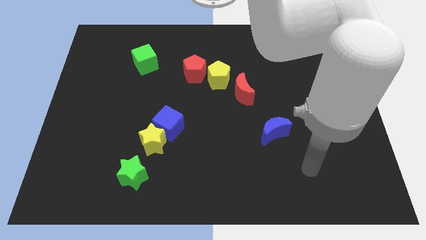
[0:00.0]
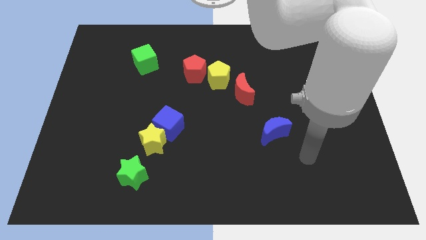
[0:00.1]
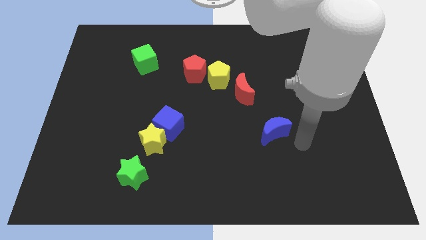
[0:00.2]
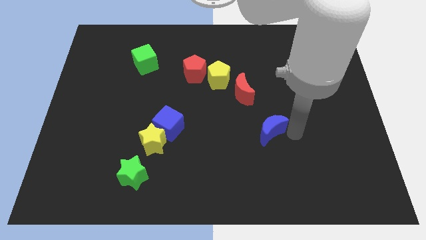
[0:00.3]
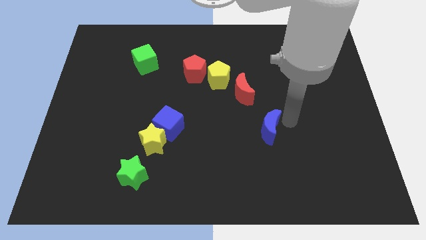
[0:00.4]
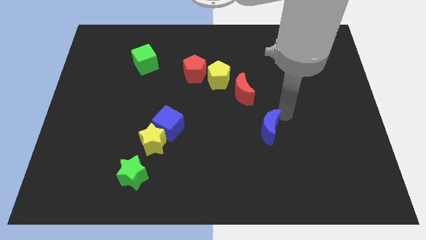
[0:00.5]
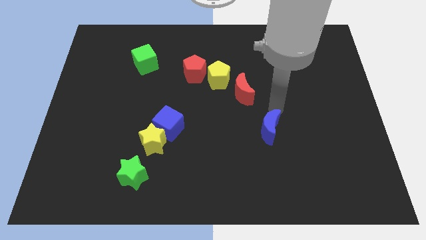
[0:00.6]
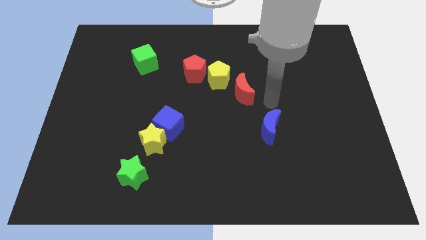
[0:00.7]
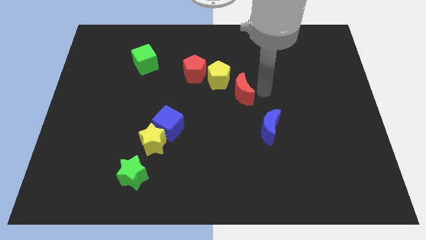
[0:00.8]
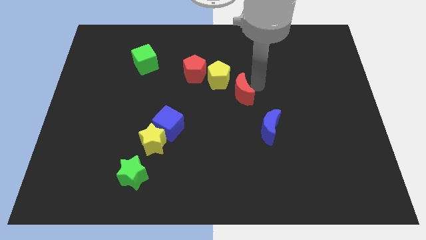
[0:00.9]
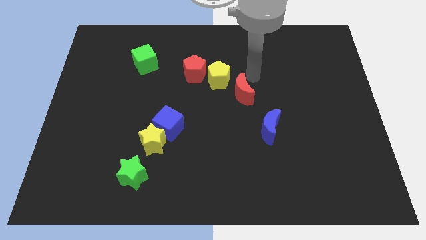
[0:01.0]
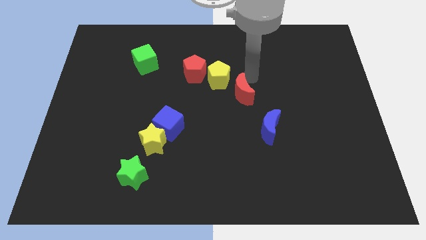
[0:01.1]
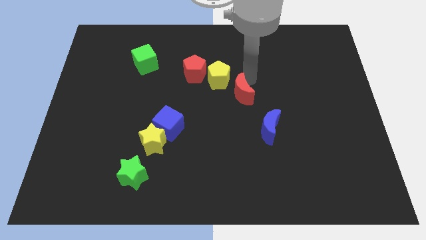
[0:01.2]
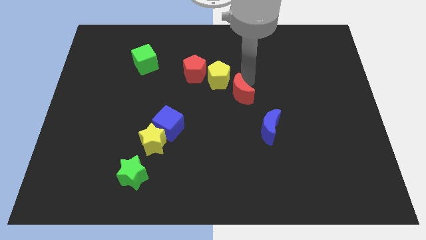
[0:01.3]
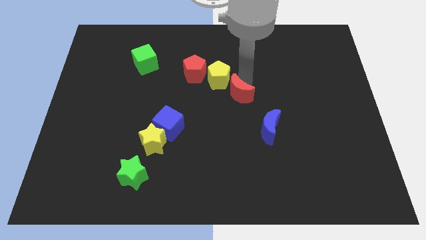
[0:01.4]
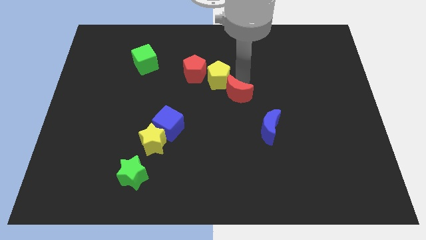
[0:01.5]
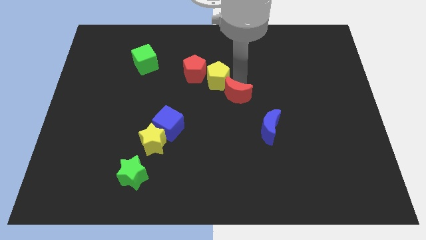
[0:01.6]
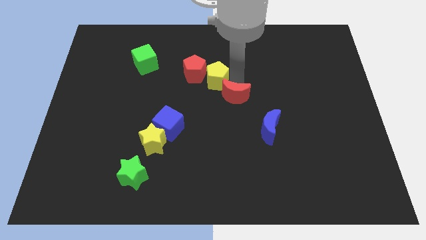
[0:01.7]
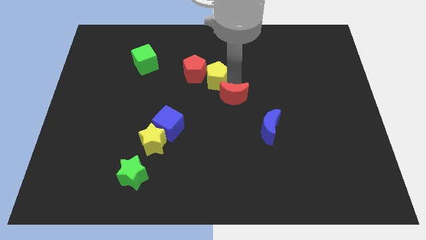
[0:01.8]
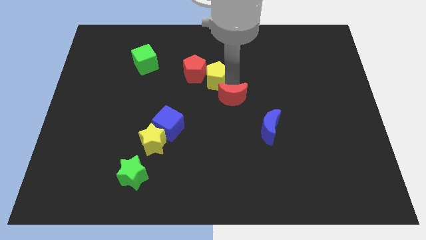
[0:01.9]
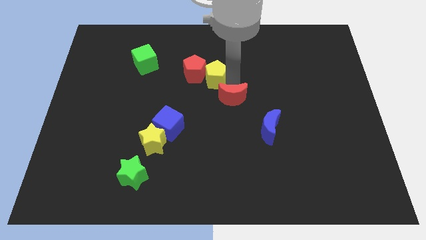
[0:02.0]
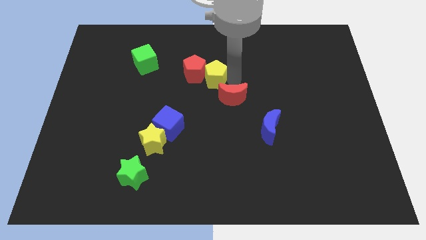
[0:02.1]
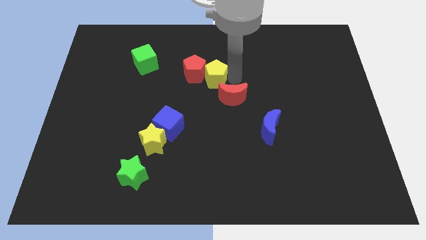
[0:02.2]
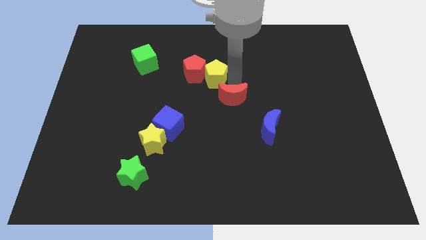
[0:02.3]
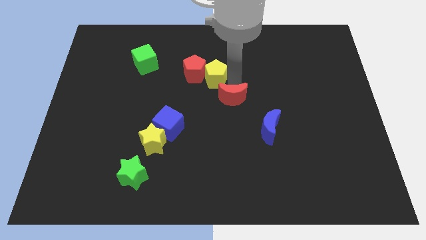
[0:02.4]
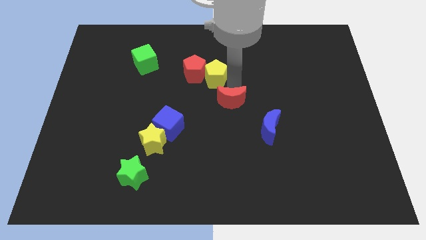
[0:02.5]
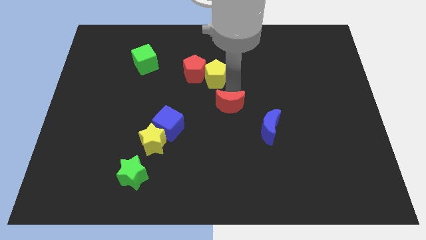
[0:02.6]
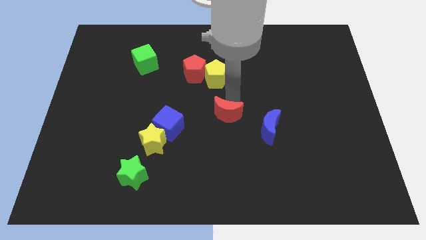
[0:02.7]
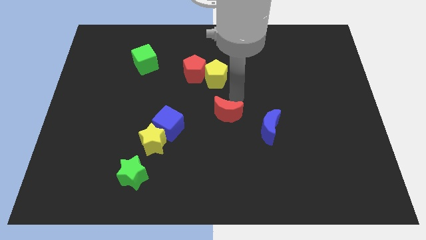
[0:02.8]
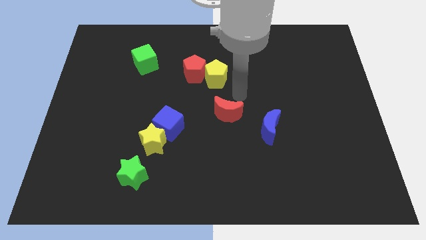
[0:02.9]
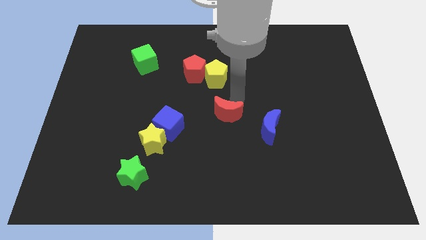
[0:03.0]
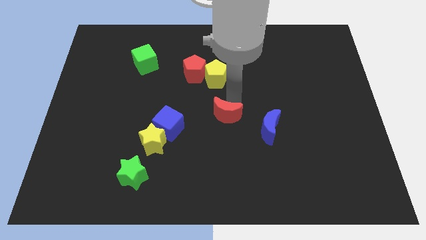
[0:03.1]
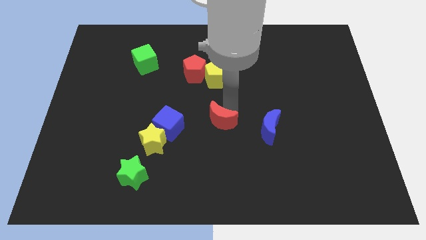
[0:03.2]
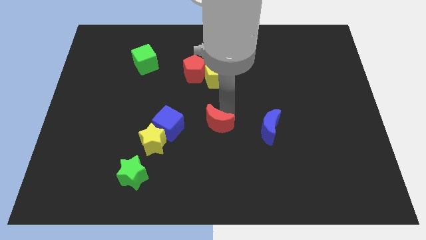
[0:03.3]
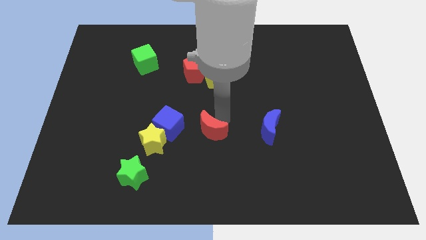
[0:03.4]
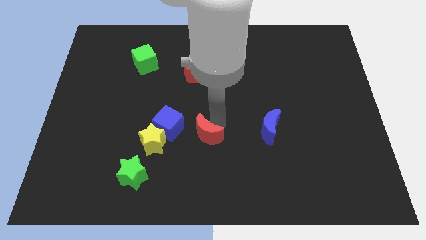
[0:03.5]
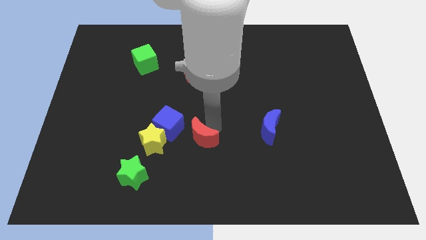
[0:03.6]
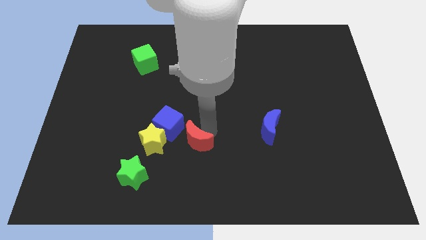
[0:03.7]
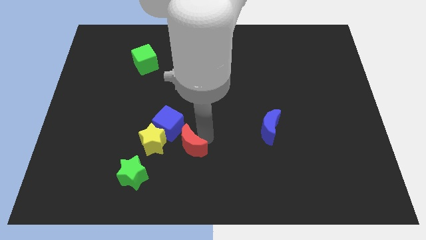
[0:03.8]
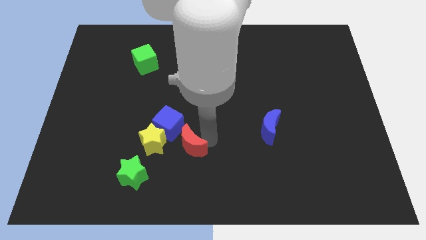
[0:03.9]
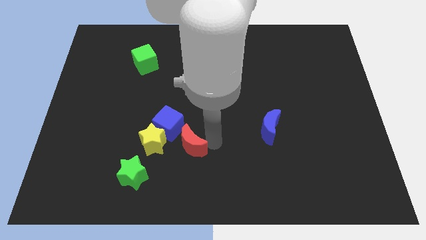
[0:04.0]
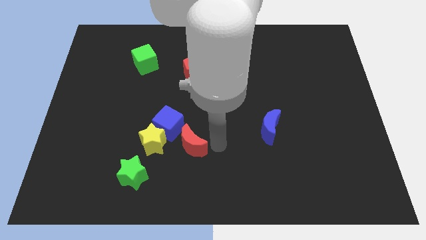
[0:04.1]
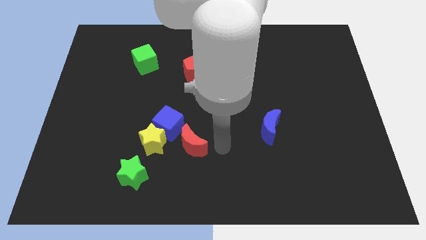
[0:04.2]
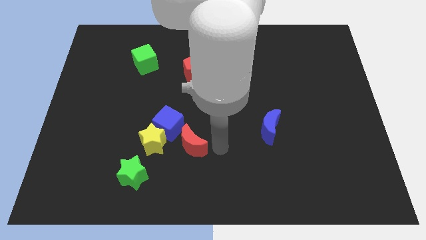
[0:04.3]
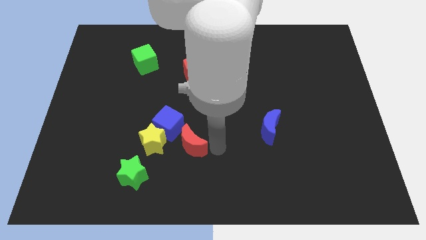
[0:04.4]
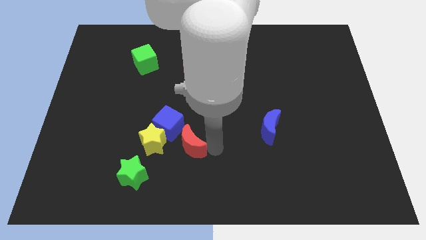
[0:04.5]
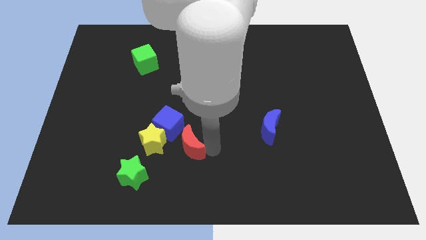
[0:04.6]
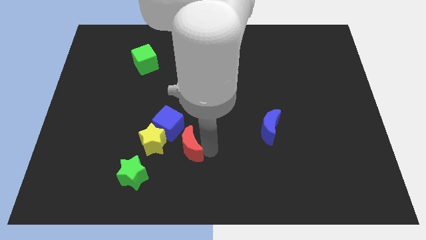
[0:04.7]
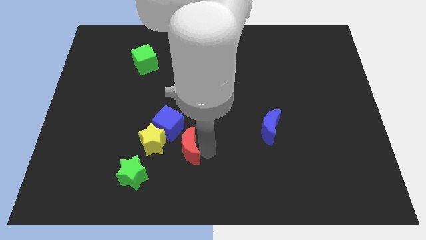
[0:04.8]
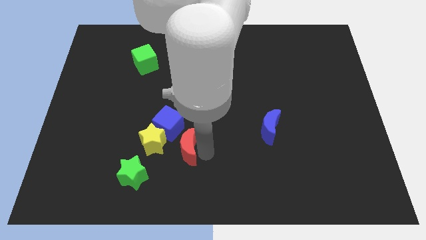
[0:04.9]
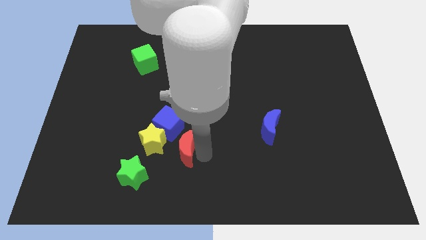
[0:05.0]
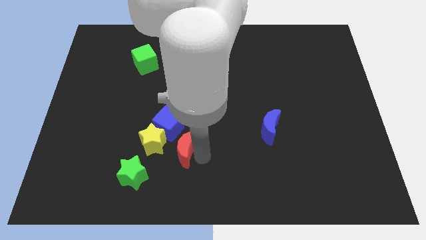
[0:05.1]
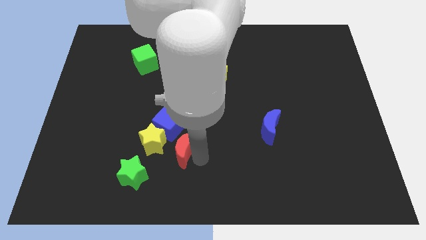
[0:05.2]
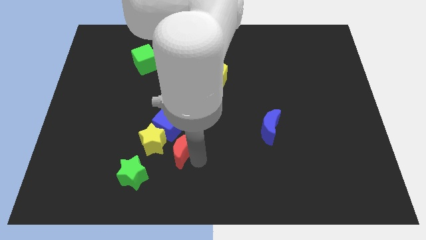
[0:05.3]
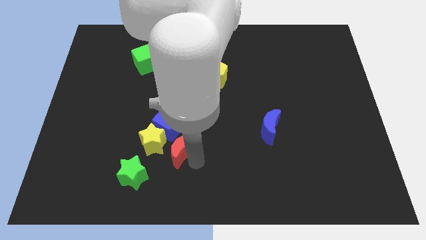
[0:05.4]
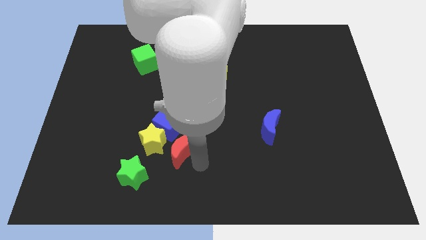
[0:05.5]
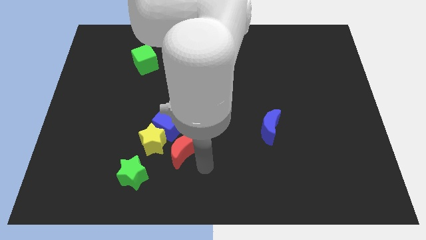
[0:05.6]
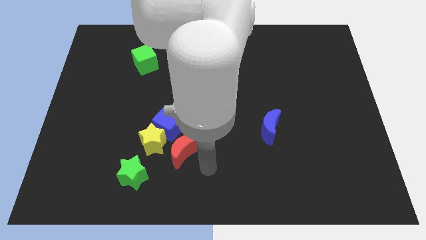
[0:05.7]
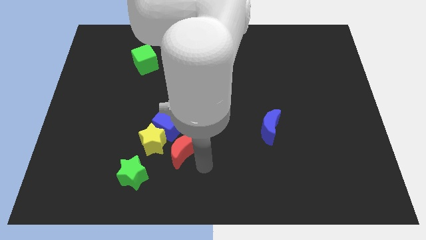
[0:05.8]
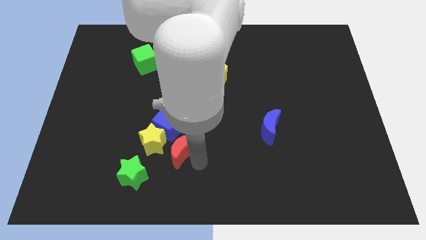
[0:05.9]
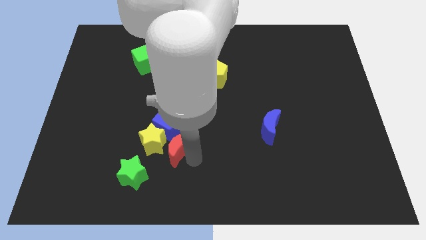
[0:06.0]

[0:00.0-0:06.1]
push the red moon close to the yellow star

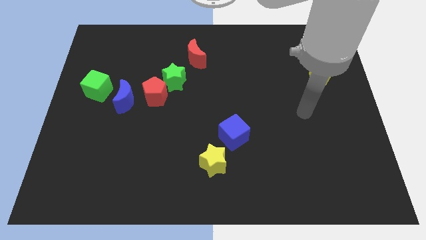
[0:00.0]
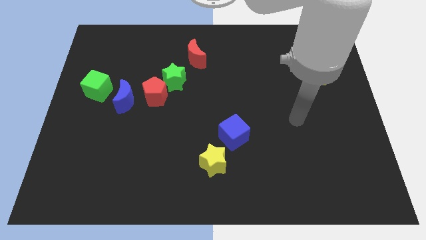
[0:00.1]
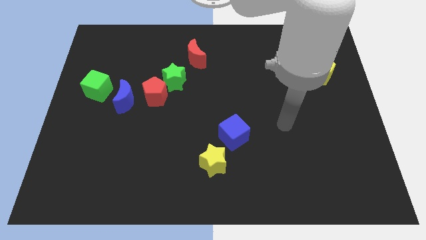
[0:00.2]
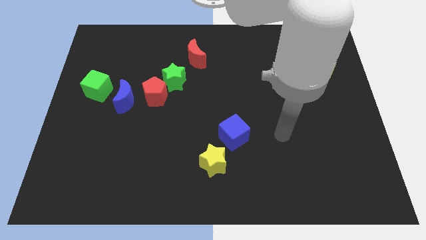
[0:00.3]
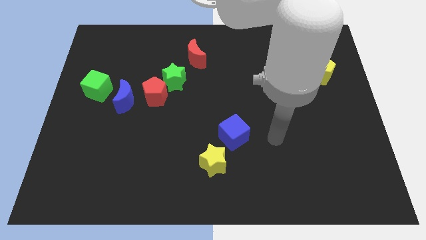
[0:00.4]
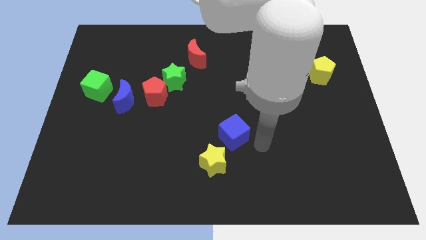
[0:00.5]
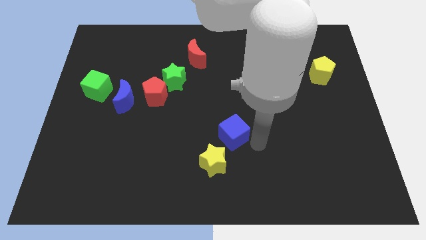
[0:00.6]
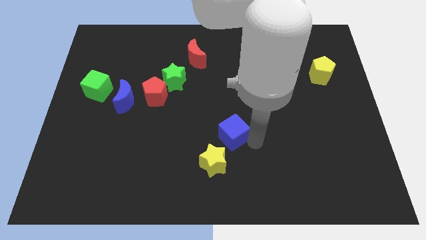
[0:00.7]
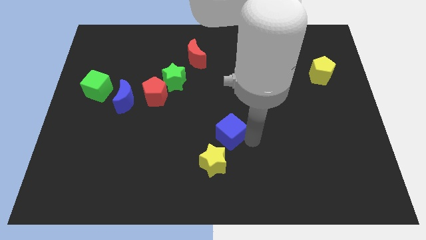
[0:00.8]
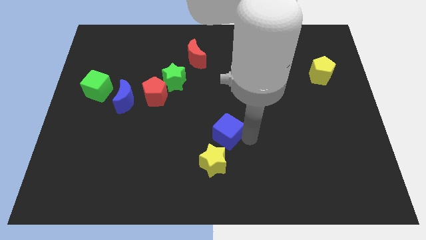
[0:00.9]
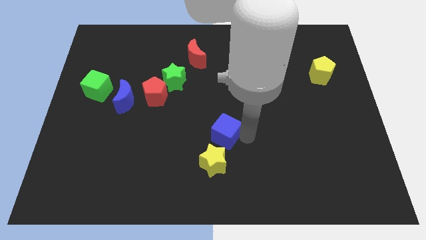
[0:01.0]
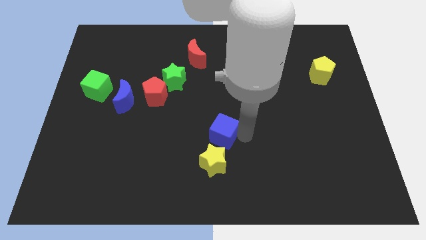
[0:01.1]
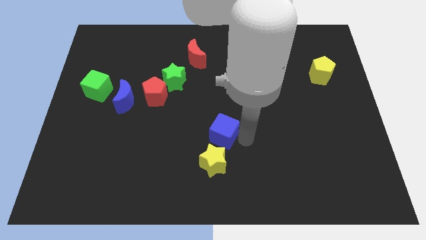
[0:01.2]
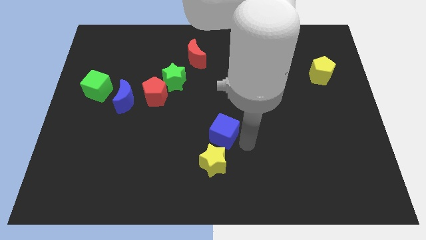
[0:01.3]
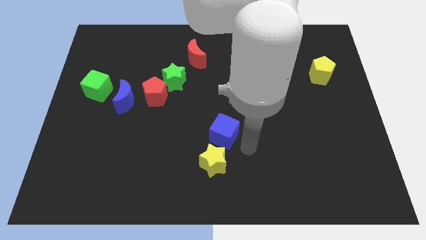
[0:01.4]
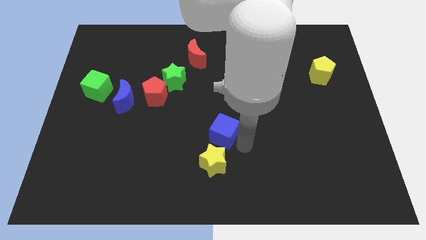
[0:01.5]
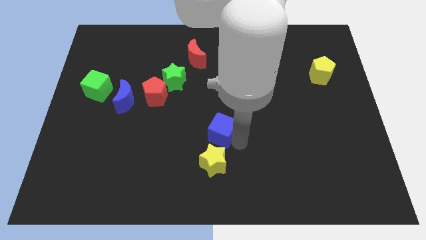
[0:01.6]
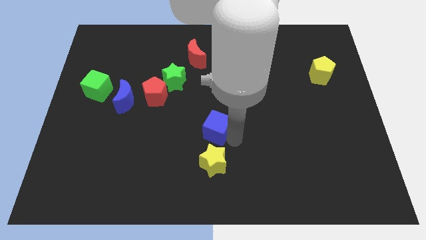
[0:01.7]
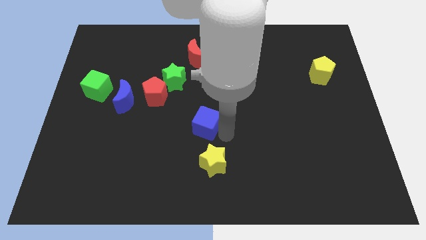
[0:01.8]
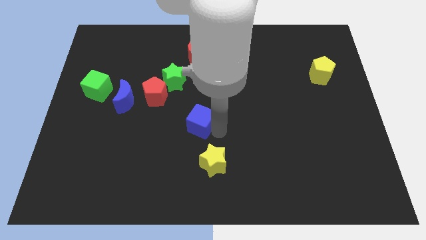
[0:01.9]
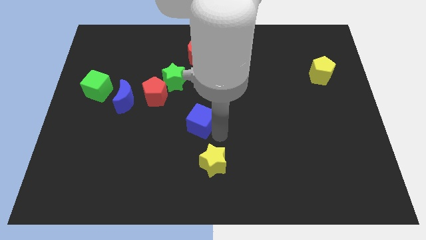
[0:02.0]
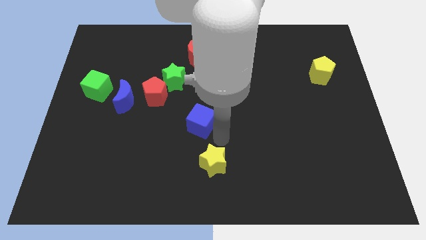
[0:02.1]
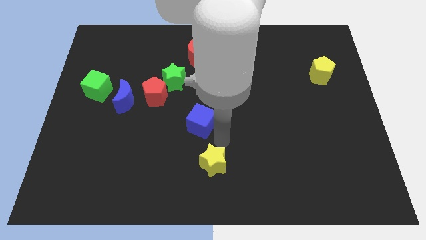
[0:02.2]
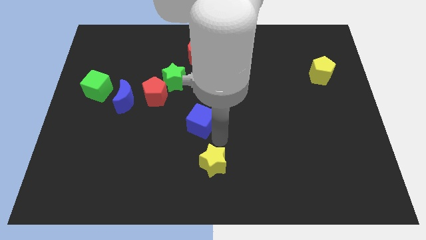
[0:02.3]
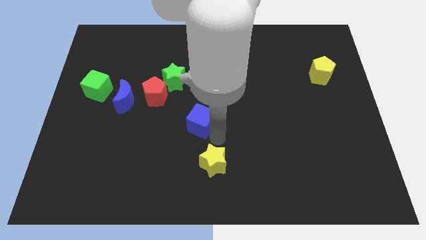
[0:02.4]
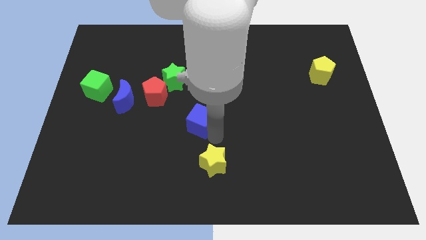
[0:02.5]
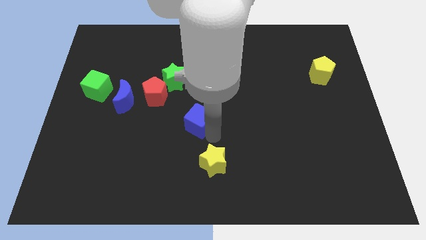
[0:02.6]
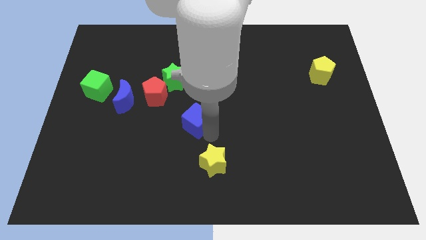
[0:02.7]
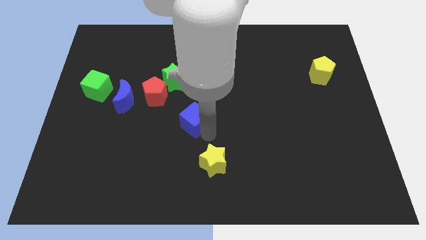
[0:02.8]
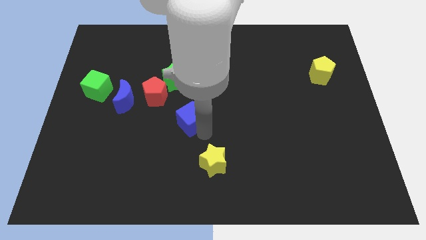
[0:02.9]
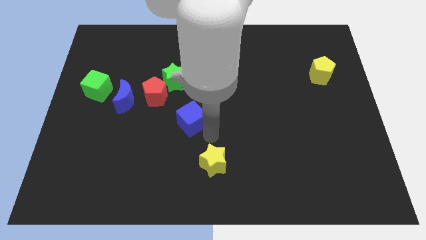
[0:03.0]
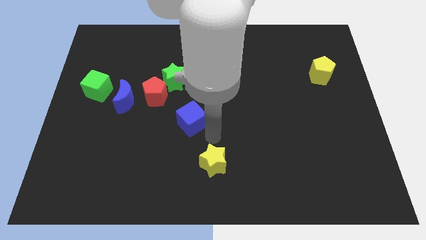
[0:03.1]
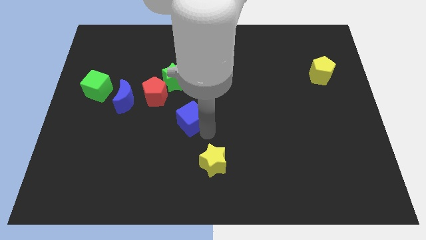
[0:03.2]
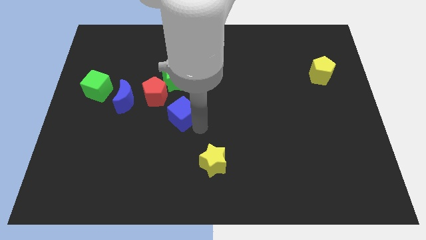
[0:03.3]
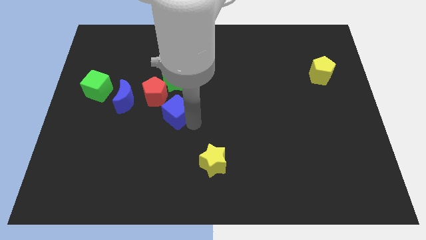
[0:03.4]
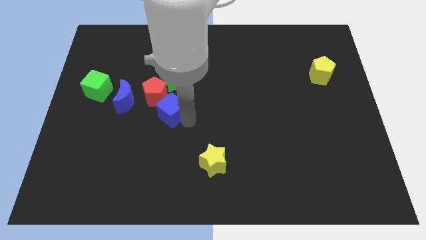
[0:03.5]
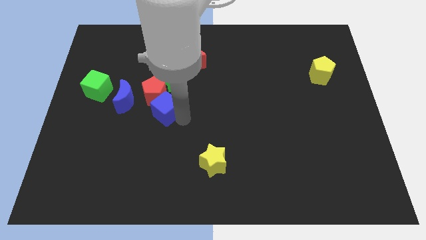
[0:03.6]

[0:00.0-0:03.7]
push the blue cube to the red pentagon
